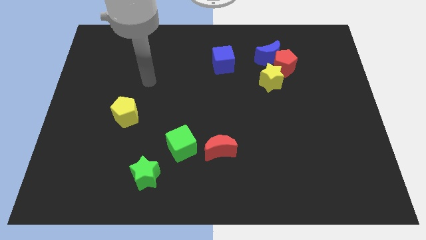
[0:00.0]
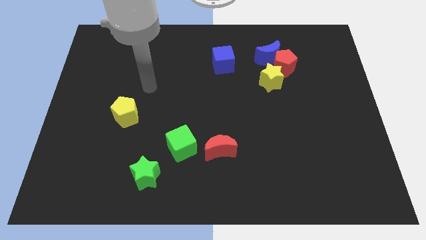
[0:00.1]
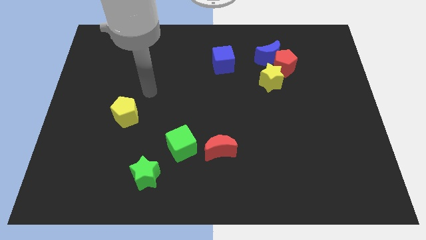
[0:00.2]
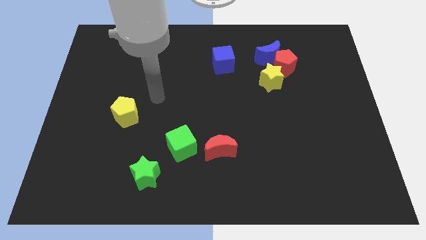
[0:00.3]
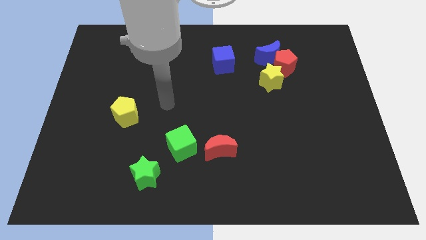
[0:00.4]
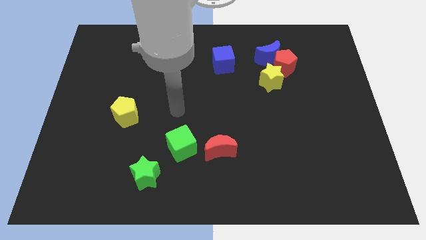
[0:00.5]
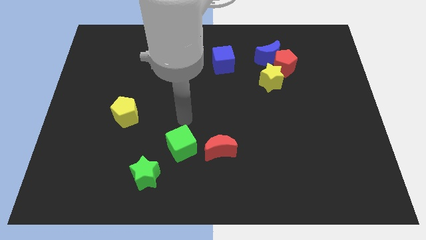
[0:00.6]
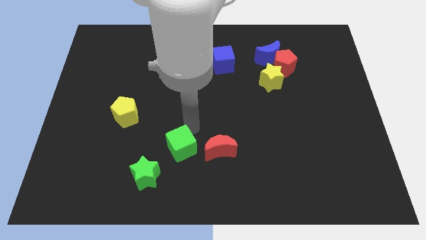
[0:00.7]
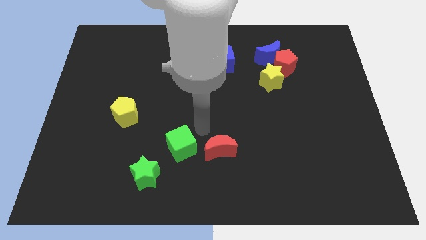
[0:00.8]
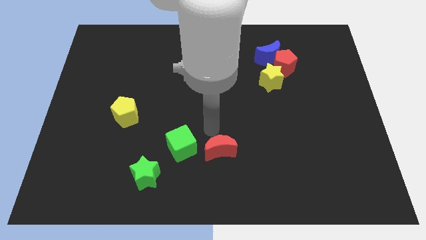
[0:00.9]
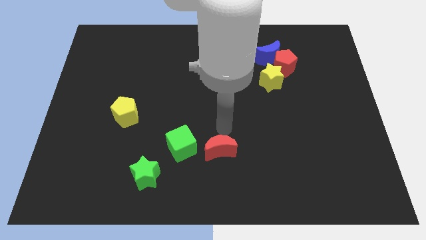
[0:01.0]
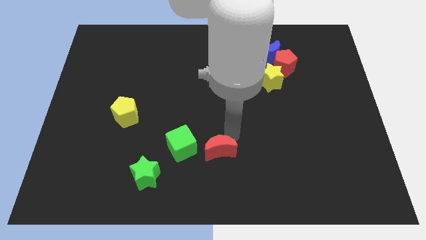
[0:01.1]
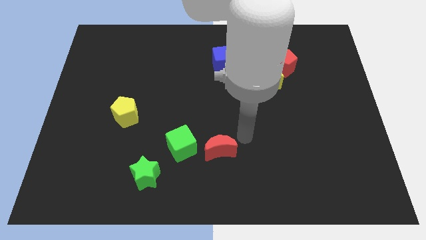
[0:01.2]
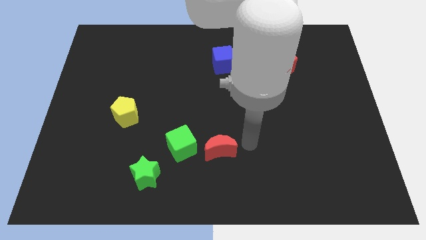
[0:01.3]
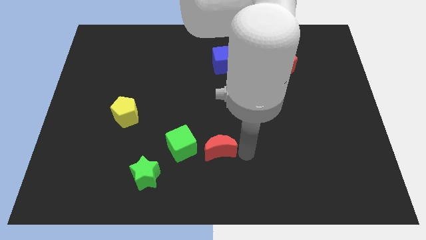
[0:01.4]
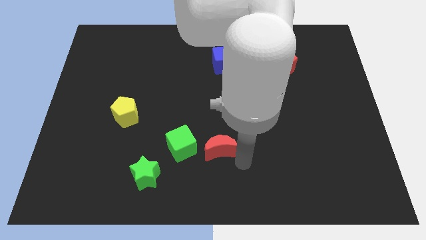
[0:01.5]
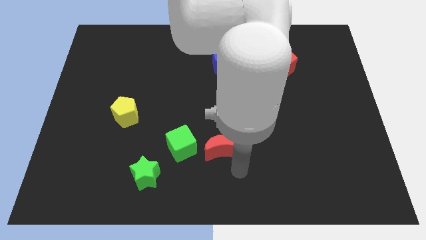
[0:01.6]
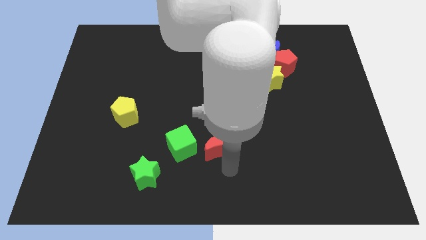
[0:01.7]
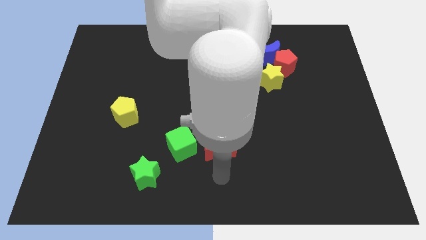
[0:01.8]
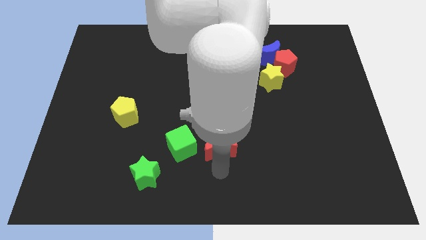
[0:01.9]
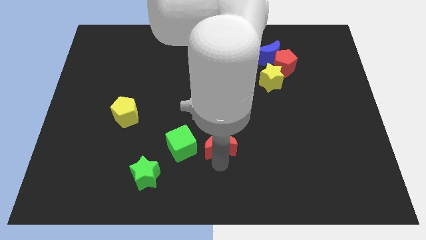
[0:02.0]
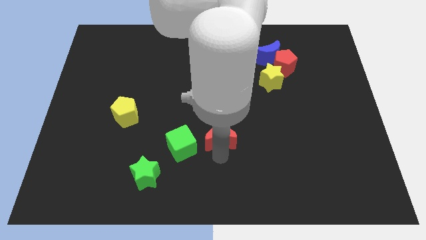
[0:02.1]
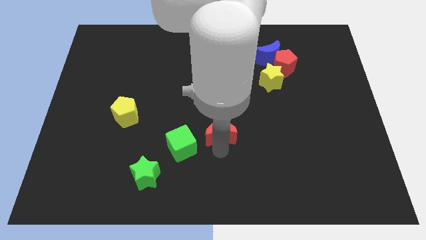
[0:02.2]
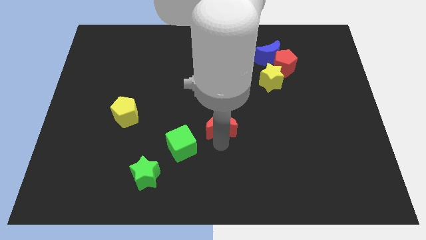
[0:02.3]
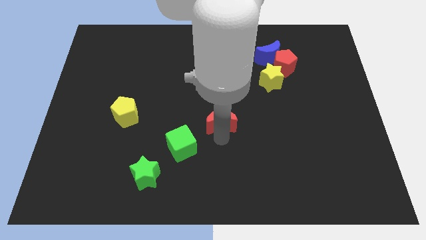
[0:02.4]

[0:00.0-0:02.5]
move the red moon up a little

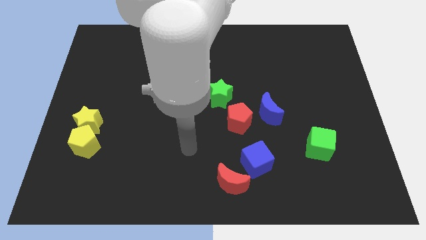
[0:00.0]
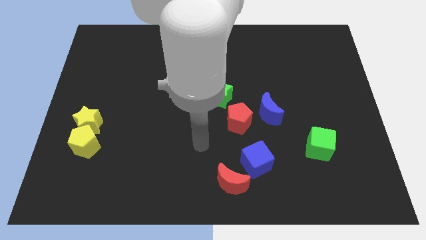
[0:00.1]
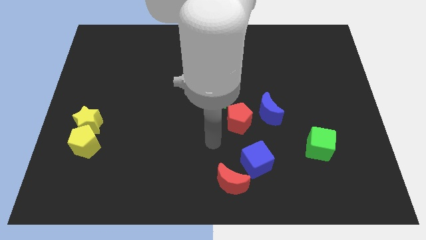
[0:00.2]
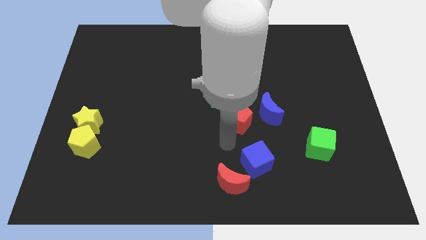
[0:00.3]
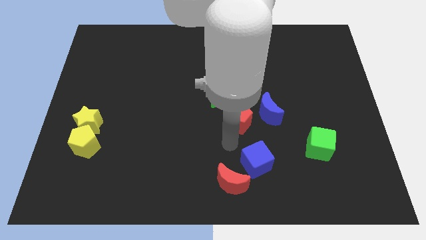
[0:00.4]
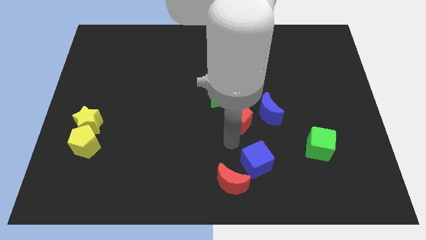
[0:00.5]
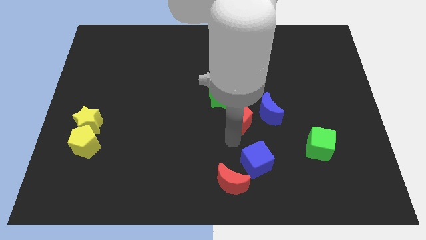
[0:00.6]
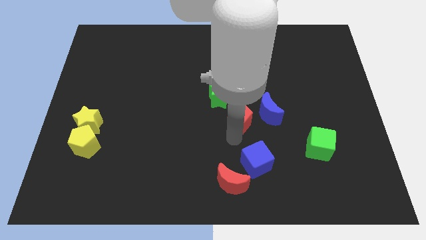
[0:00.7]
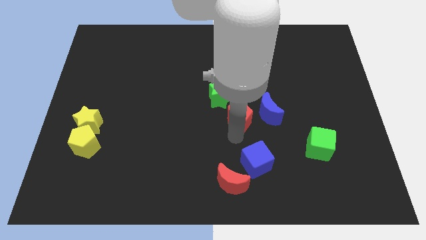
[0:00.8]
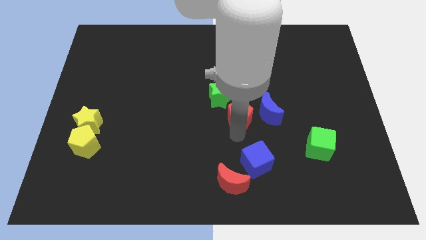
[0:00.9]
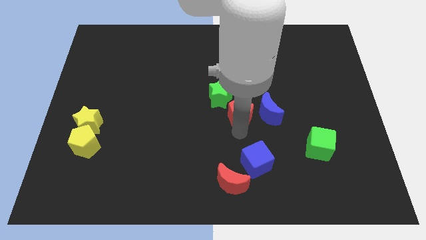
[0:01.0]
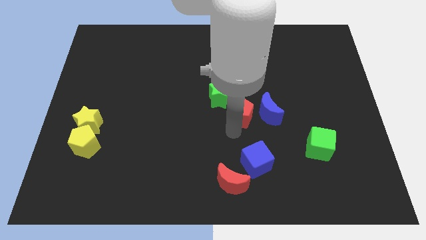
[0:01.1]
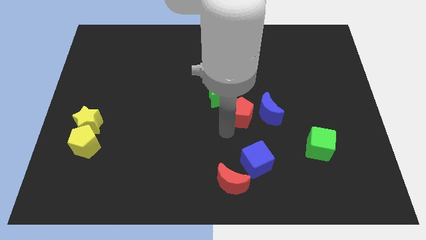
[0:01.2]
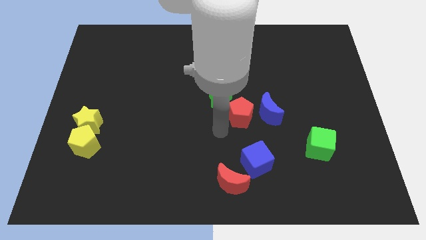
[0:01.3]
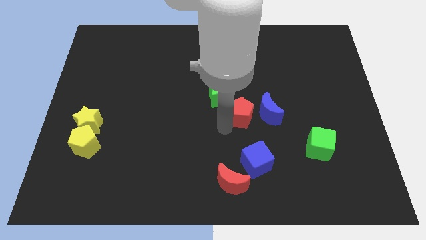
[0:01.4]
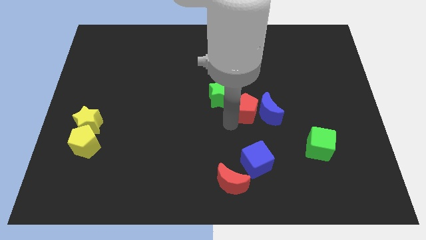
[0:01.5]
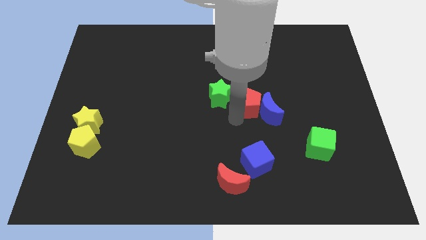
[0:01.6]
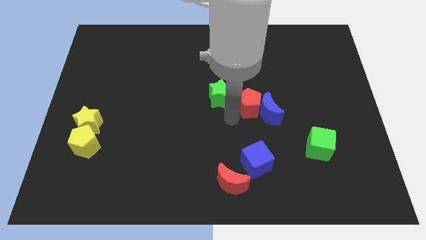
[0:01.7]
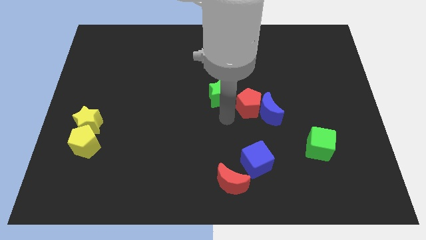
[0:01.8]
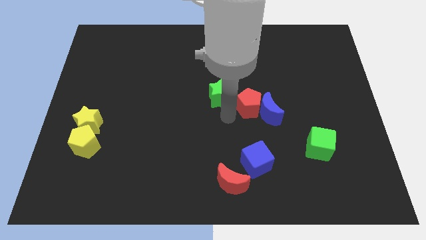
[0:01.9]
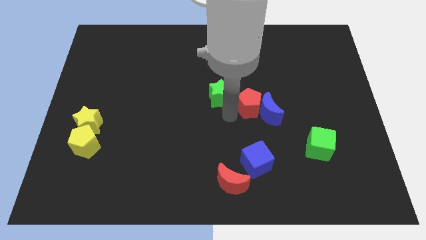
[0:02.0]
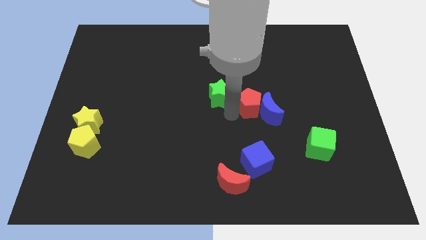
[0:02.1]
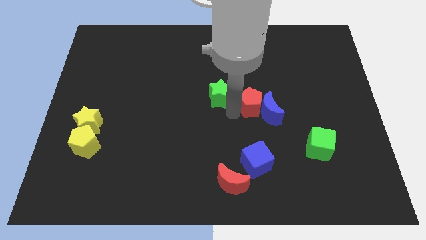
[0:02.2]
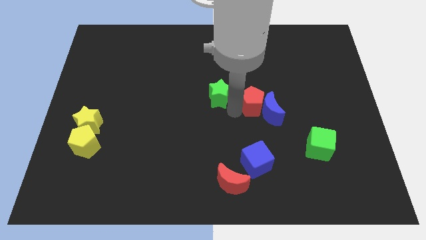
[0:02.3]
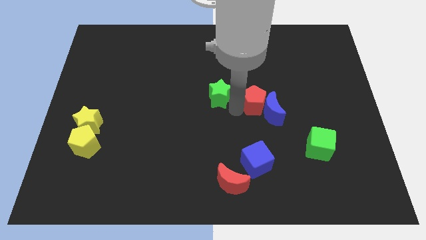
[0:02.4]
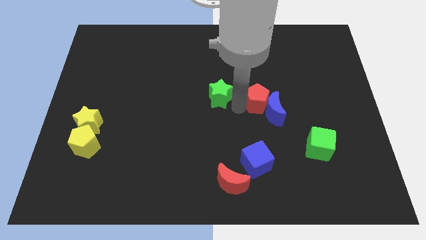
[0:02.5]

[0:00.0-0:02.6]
slightly push the red pentagon upwards and then to the right

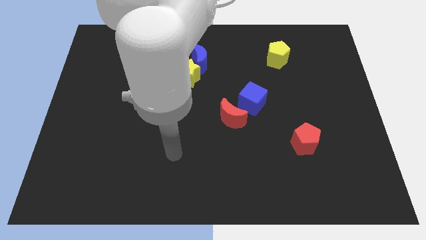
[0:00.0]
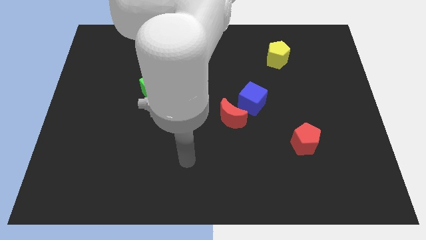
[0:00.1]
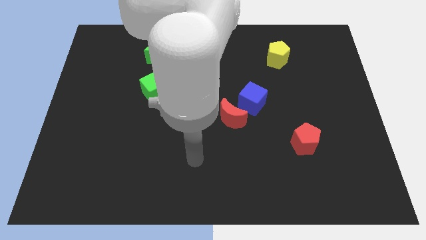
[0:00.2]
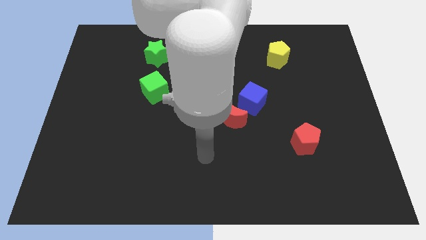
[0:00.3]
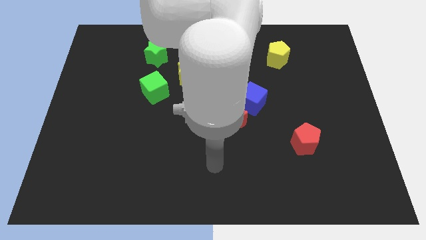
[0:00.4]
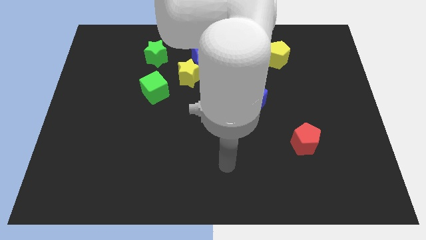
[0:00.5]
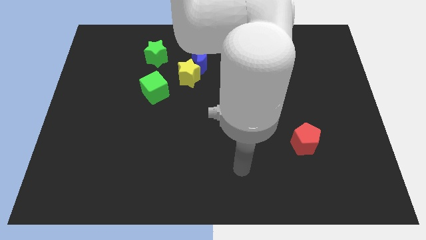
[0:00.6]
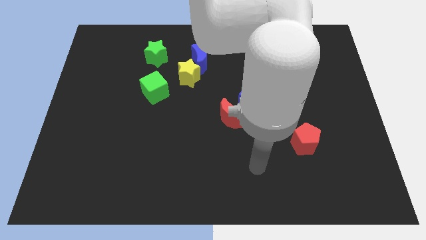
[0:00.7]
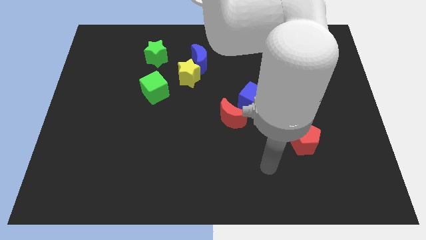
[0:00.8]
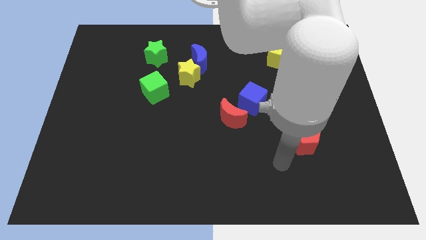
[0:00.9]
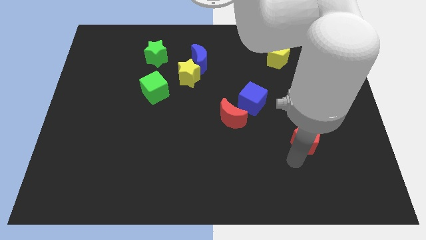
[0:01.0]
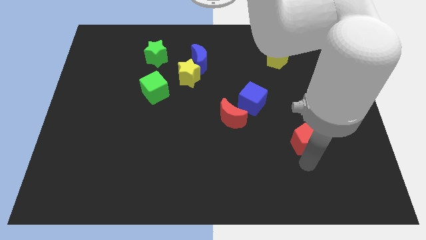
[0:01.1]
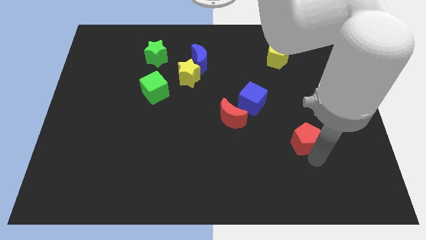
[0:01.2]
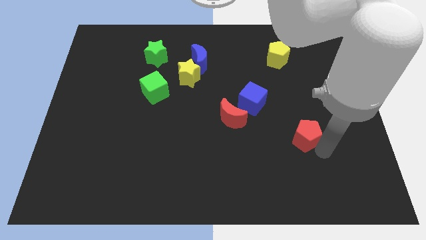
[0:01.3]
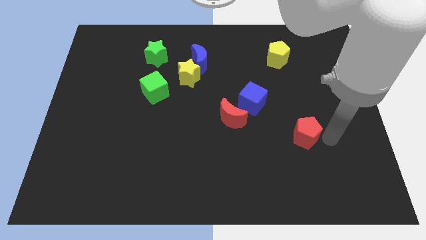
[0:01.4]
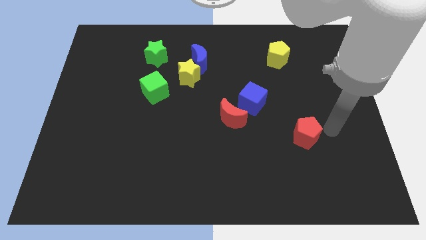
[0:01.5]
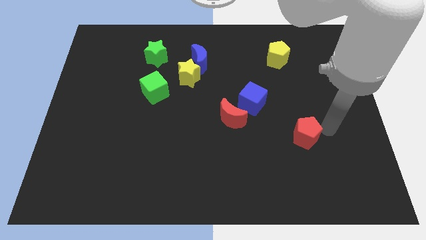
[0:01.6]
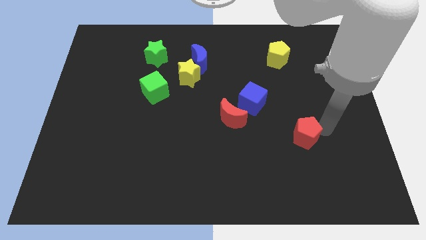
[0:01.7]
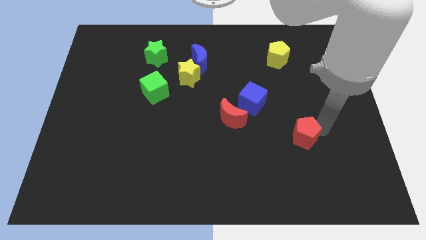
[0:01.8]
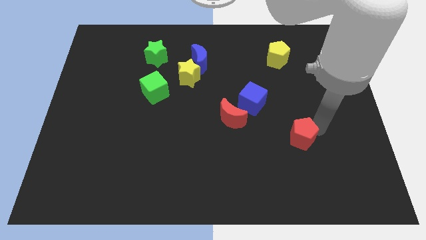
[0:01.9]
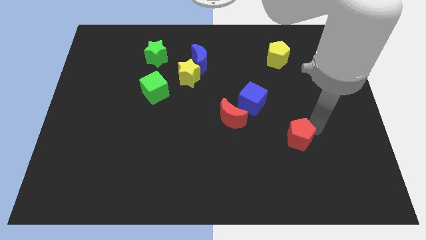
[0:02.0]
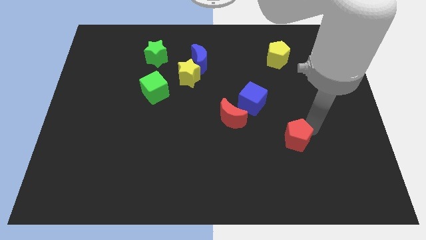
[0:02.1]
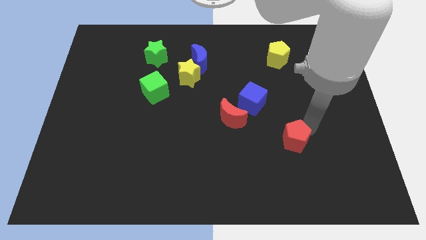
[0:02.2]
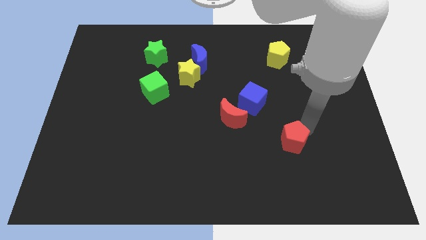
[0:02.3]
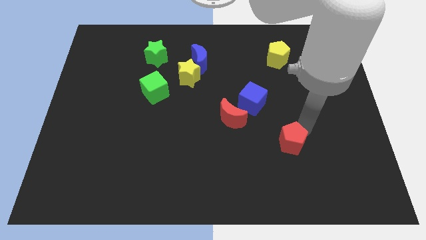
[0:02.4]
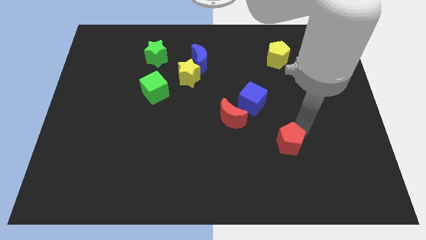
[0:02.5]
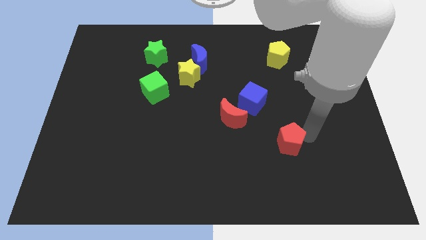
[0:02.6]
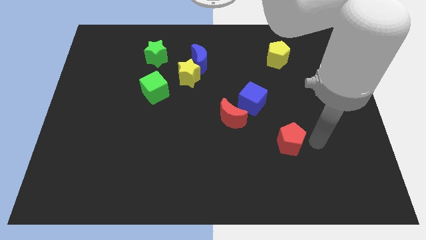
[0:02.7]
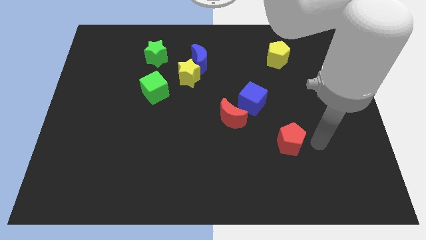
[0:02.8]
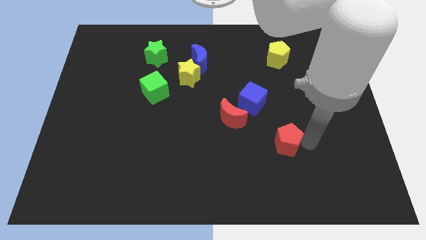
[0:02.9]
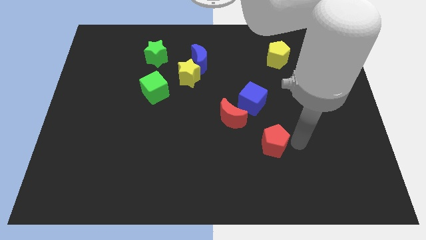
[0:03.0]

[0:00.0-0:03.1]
move the red pentagon to the left a little bit
